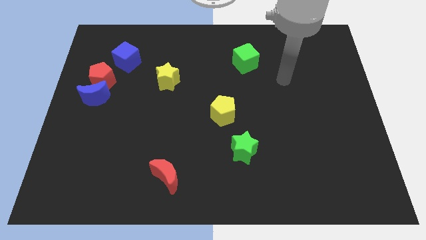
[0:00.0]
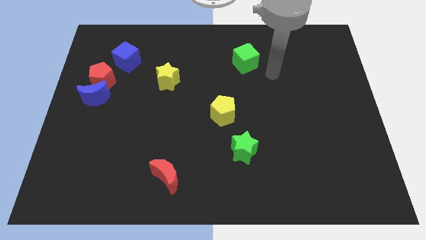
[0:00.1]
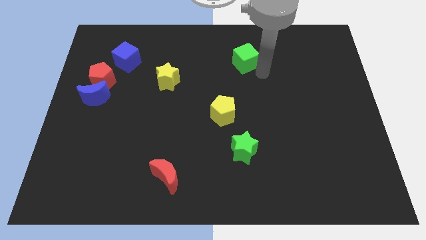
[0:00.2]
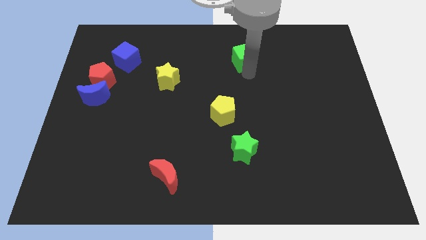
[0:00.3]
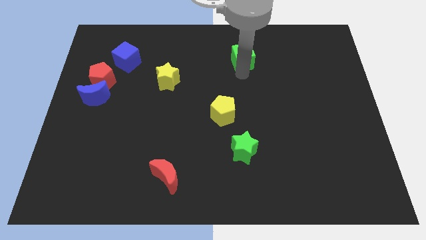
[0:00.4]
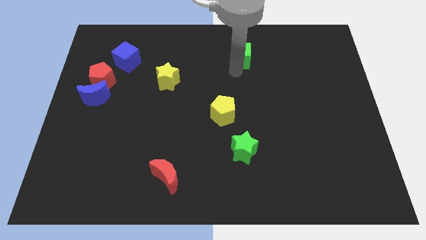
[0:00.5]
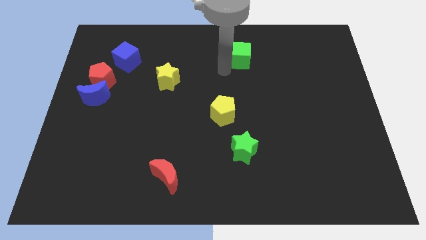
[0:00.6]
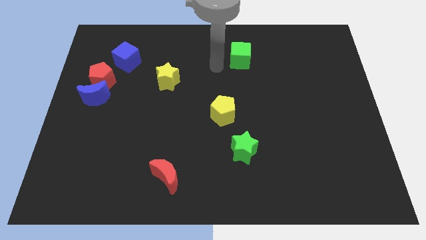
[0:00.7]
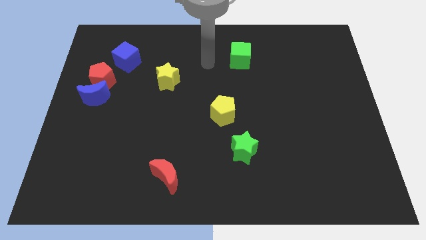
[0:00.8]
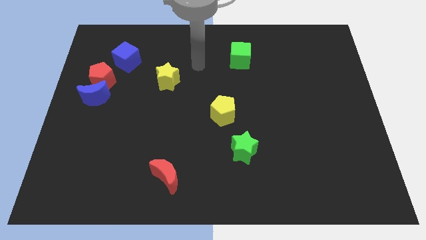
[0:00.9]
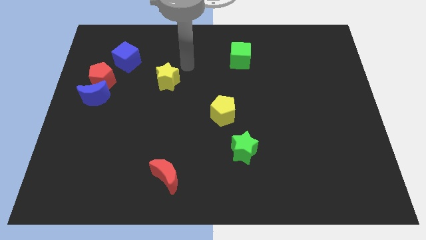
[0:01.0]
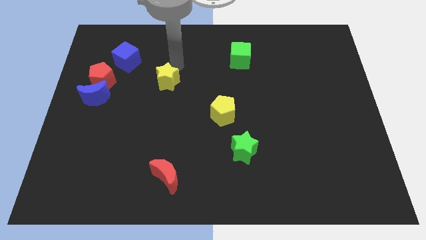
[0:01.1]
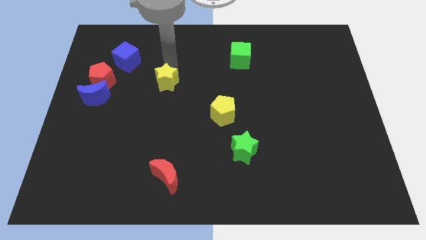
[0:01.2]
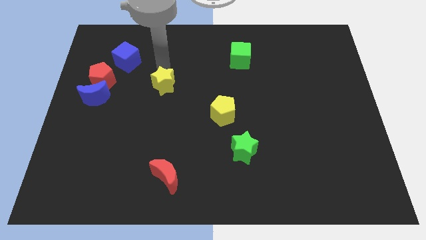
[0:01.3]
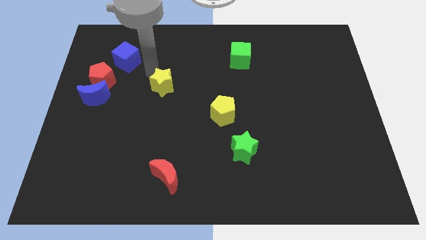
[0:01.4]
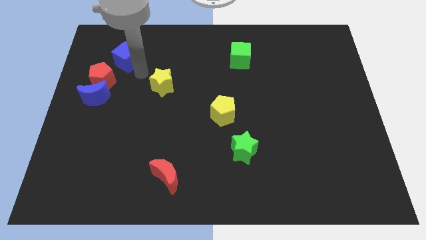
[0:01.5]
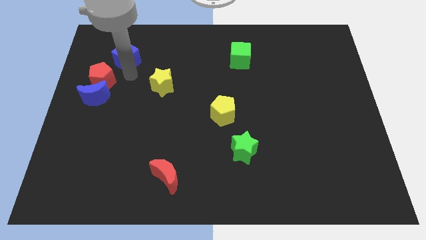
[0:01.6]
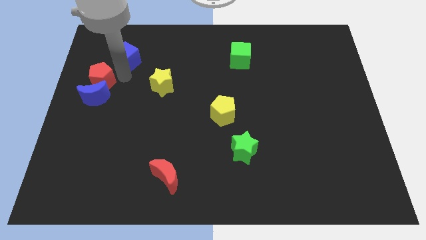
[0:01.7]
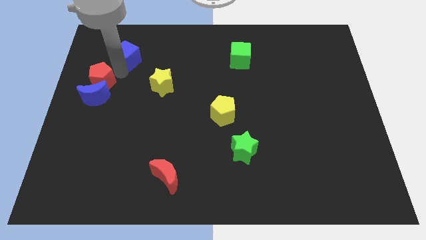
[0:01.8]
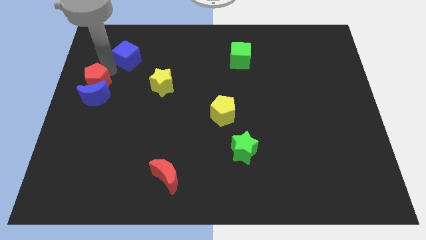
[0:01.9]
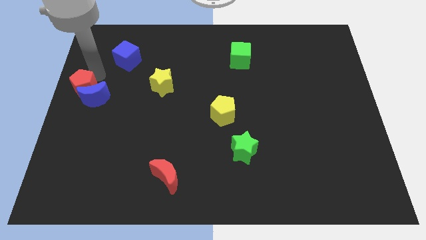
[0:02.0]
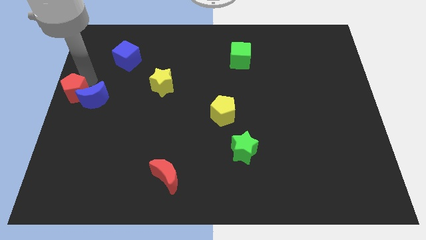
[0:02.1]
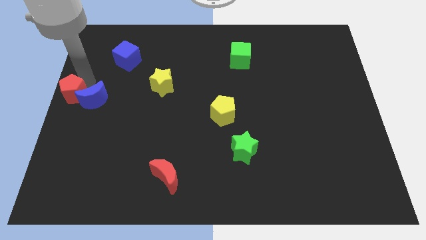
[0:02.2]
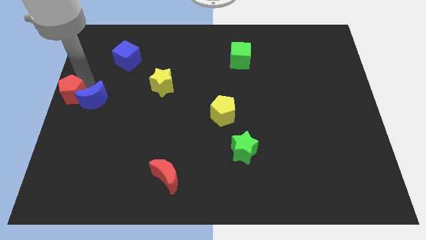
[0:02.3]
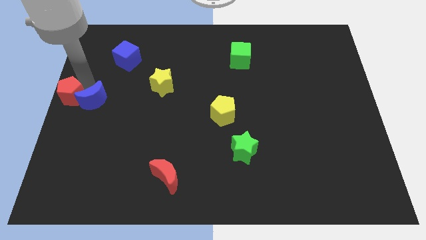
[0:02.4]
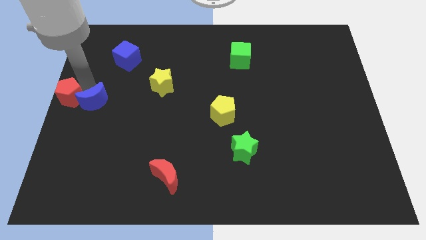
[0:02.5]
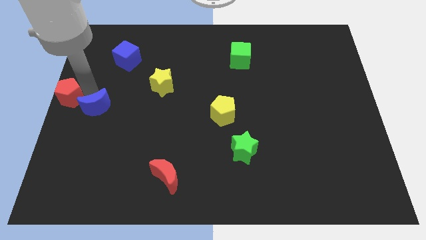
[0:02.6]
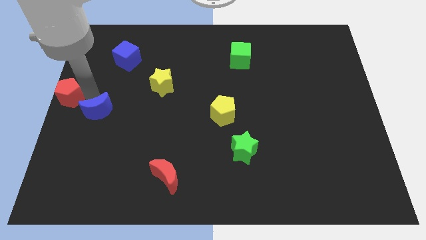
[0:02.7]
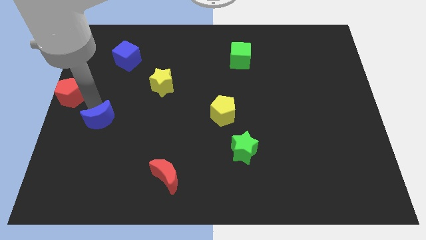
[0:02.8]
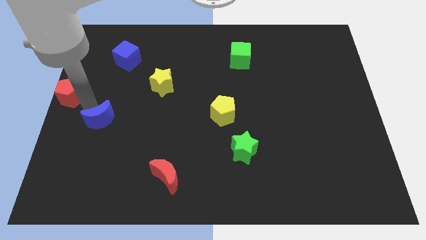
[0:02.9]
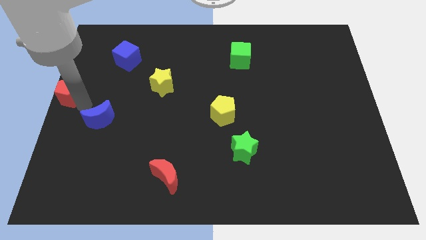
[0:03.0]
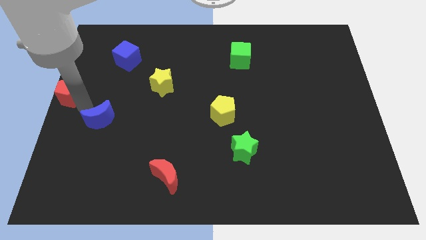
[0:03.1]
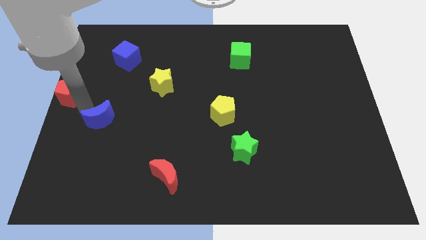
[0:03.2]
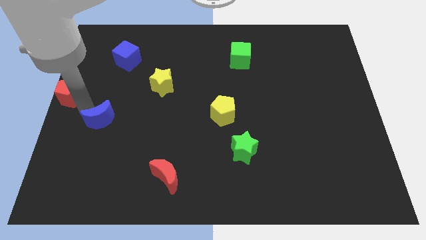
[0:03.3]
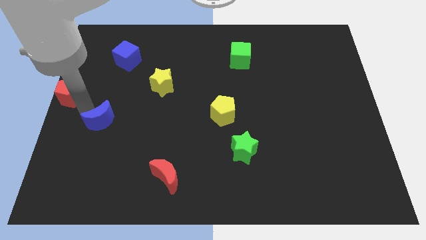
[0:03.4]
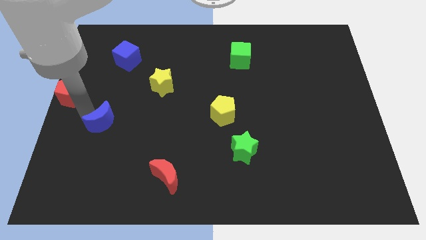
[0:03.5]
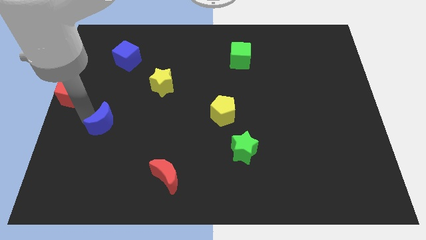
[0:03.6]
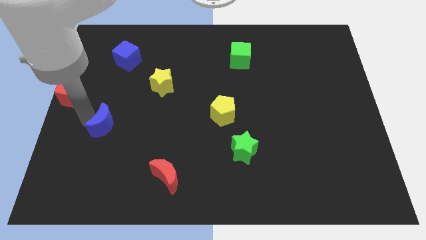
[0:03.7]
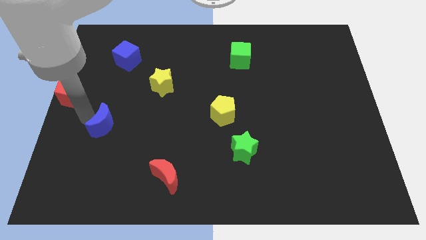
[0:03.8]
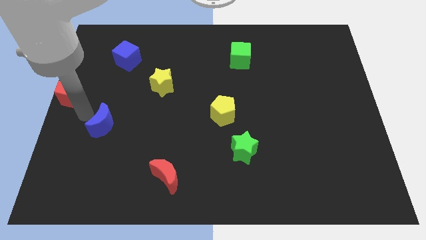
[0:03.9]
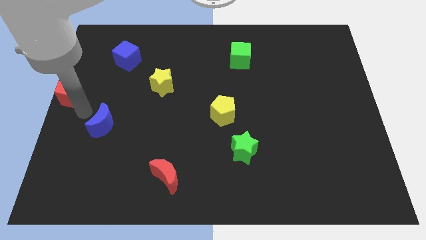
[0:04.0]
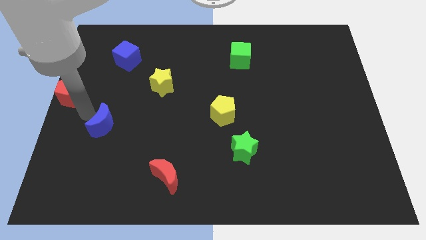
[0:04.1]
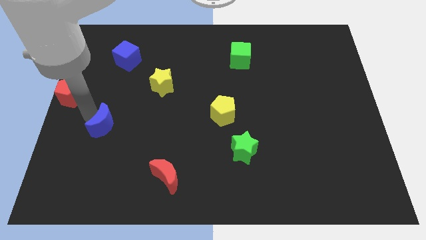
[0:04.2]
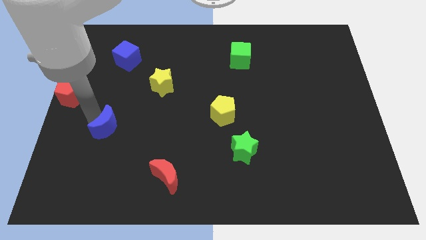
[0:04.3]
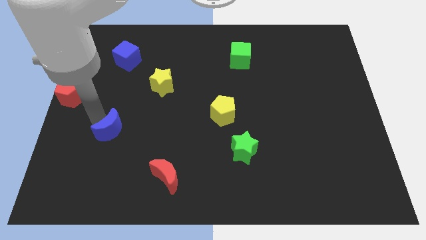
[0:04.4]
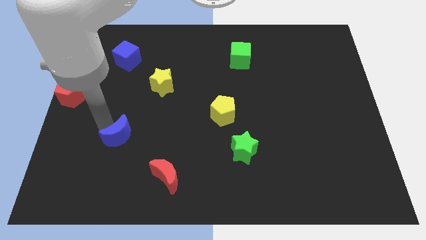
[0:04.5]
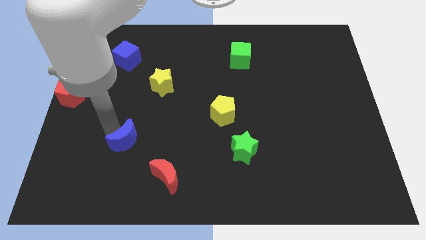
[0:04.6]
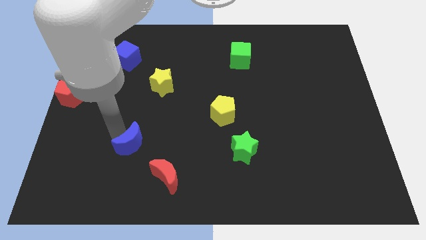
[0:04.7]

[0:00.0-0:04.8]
move the blue moon to the top left side of the red moon

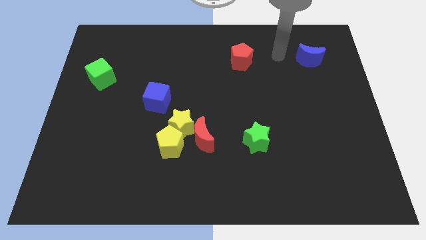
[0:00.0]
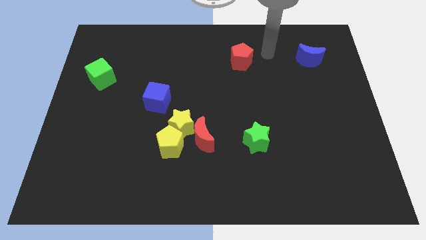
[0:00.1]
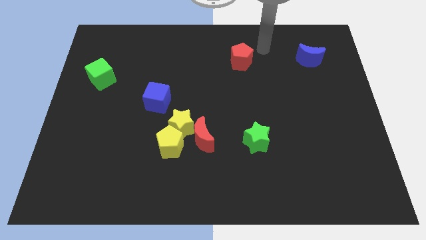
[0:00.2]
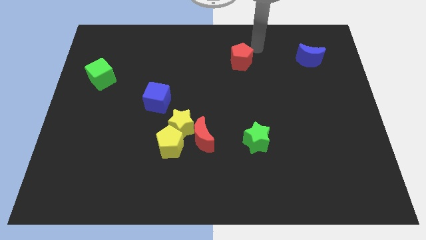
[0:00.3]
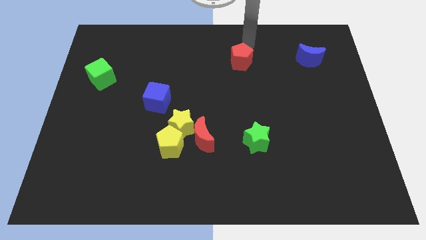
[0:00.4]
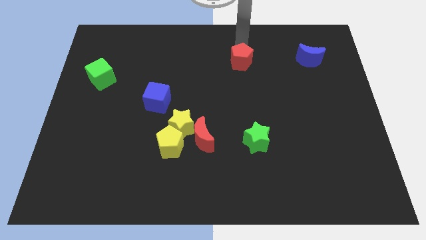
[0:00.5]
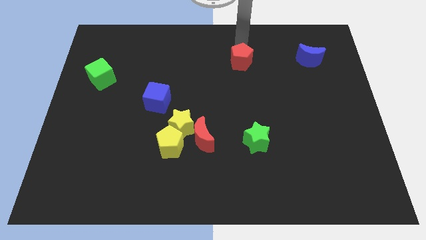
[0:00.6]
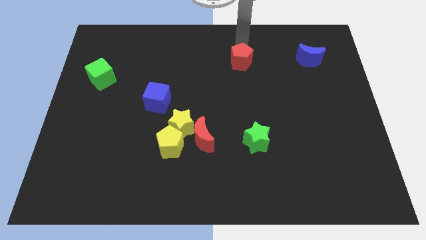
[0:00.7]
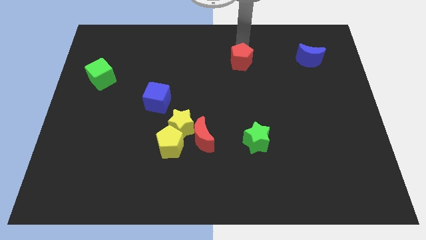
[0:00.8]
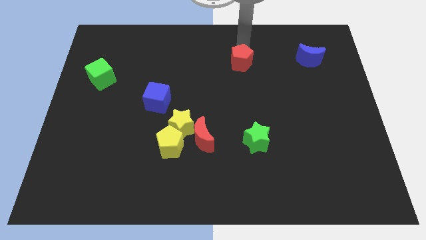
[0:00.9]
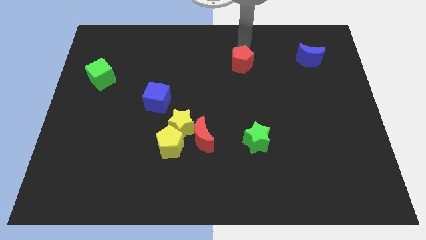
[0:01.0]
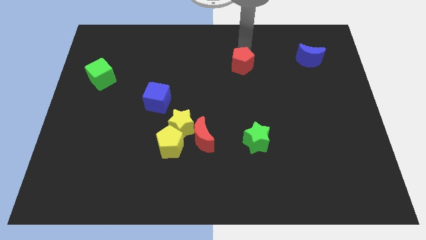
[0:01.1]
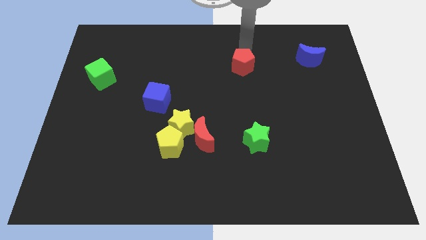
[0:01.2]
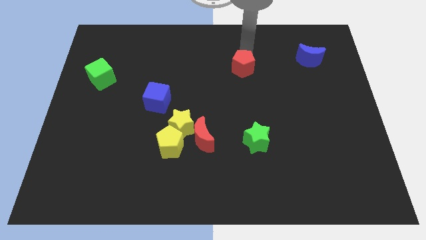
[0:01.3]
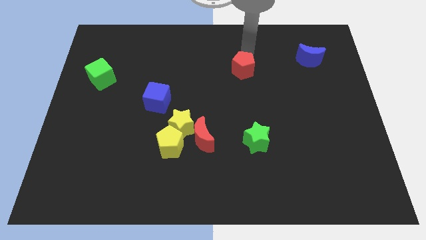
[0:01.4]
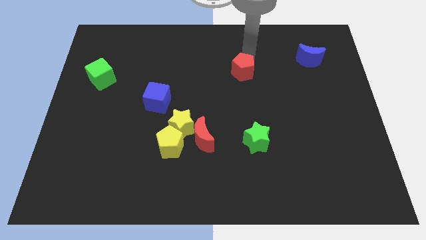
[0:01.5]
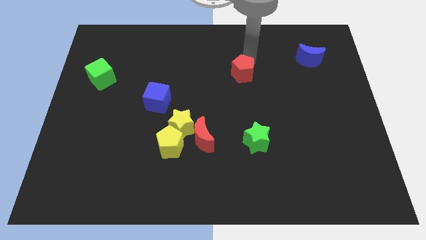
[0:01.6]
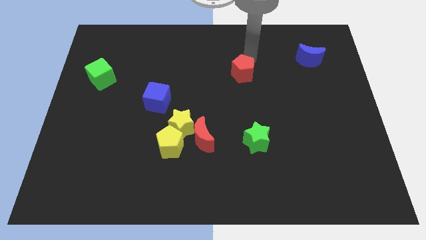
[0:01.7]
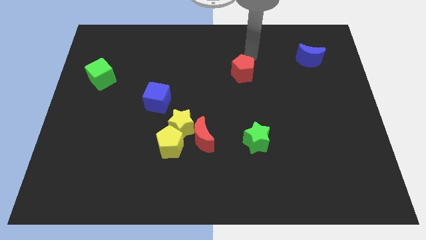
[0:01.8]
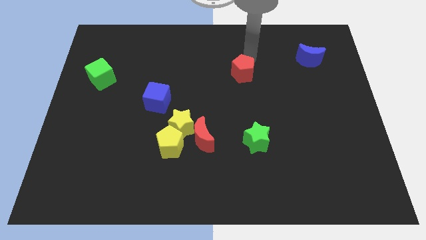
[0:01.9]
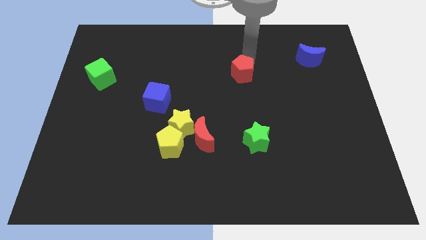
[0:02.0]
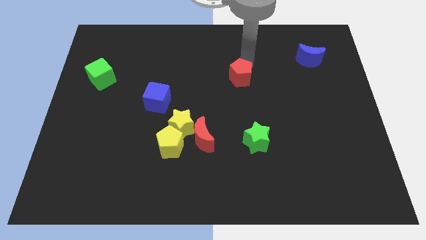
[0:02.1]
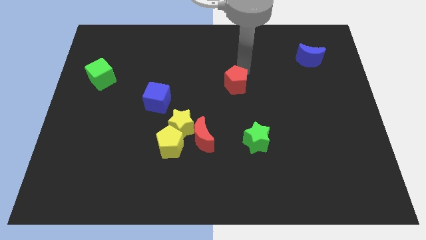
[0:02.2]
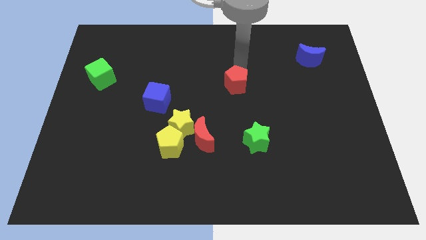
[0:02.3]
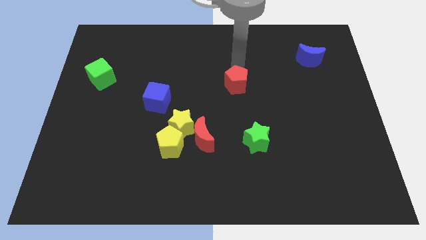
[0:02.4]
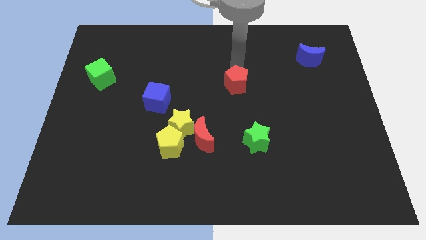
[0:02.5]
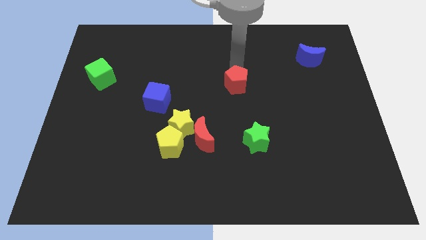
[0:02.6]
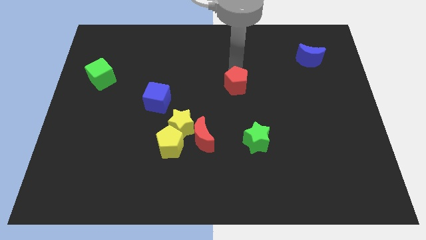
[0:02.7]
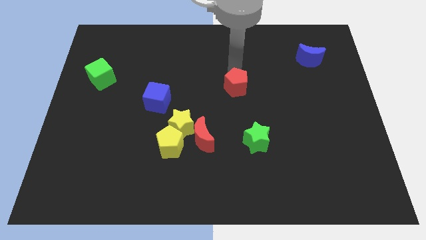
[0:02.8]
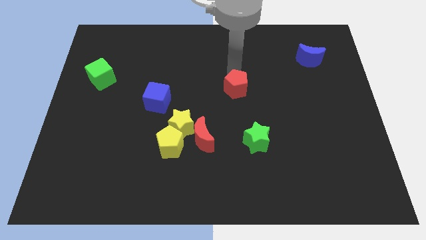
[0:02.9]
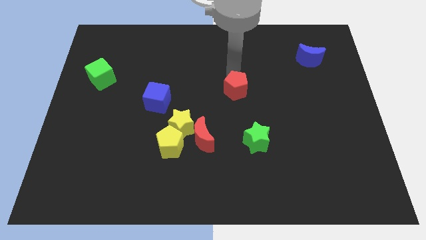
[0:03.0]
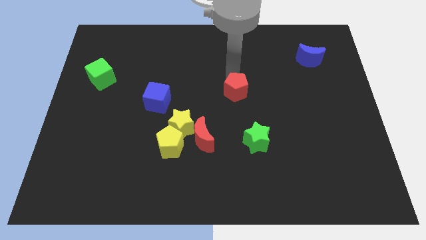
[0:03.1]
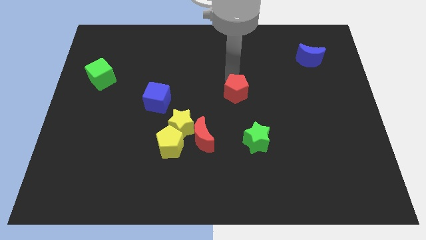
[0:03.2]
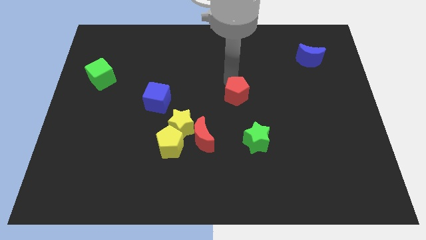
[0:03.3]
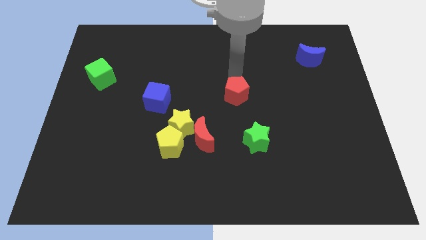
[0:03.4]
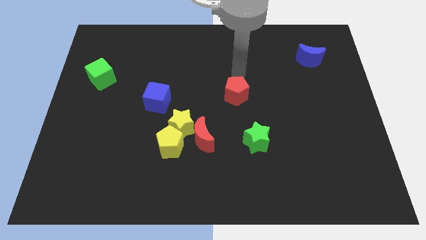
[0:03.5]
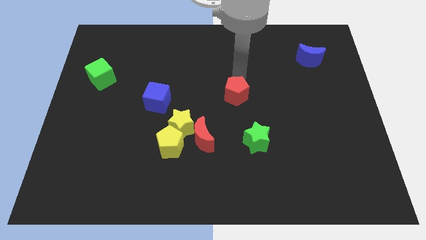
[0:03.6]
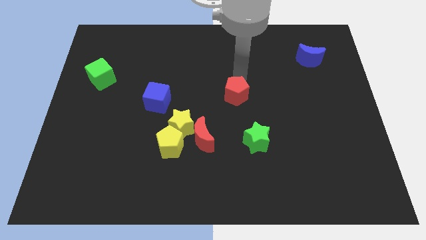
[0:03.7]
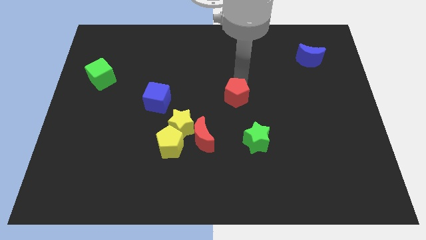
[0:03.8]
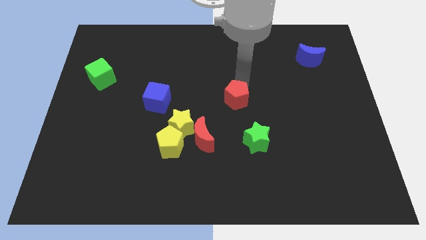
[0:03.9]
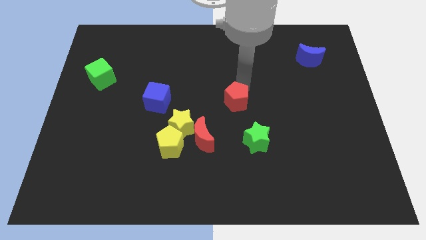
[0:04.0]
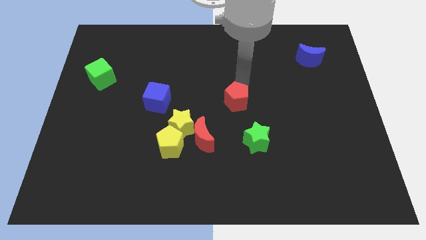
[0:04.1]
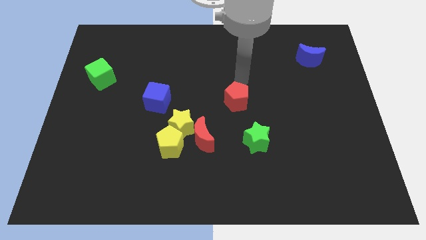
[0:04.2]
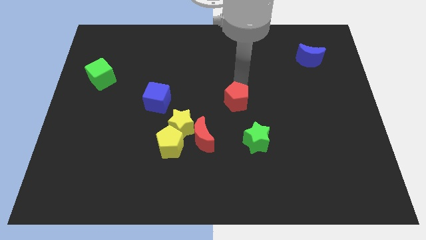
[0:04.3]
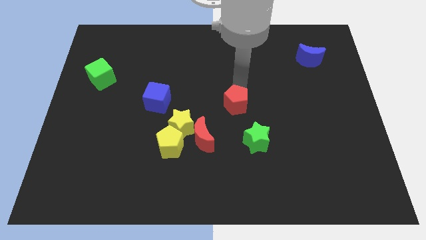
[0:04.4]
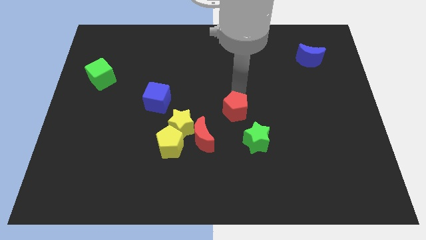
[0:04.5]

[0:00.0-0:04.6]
move the red pentagon diagonally up and to the left of the green star
